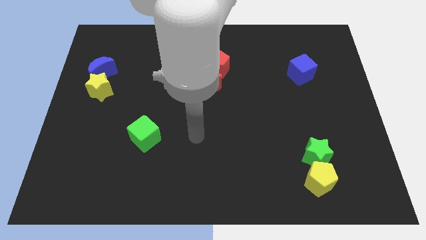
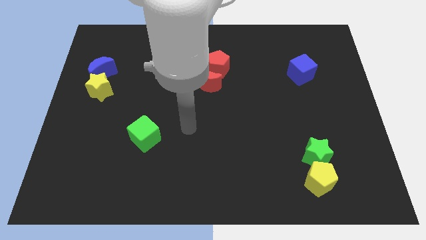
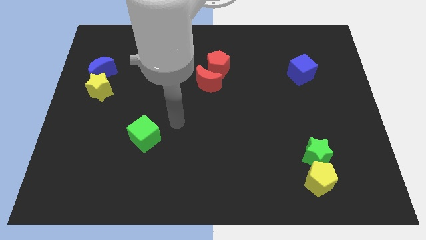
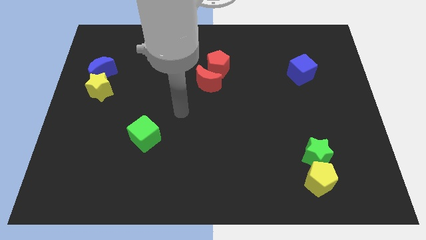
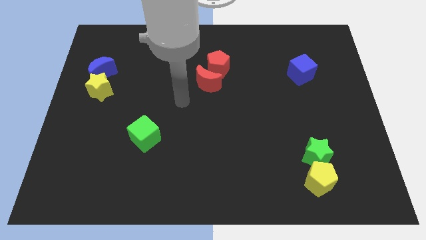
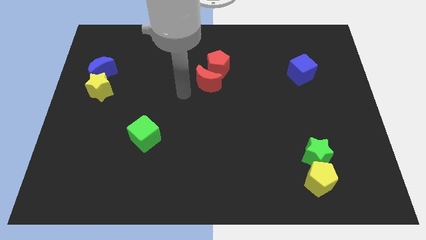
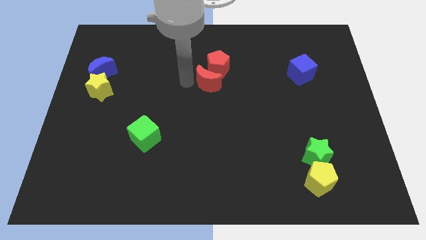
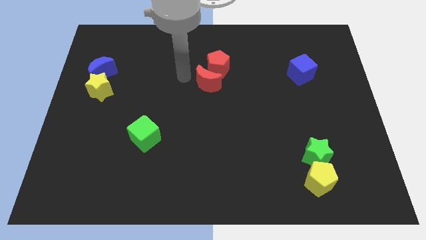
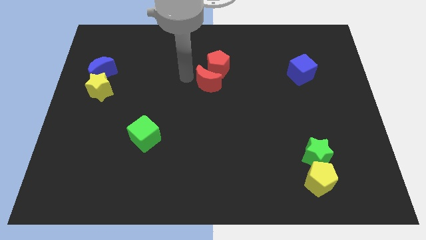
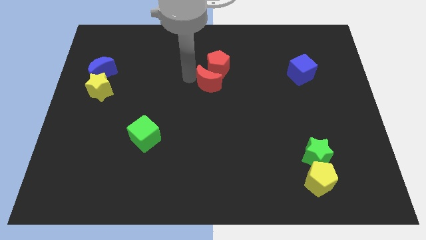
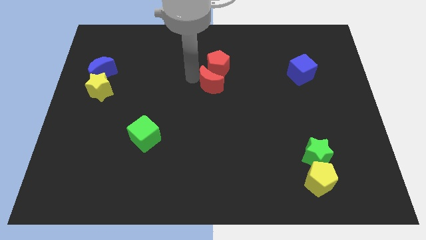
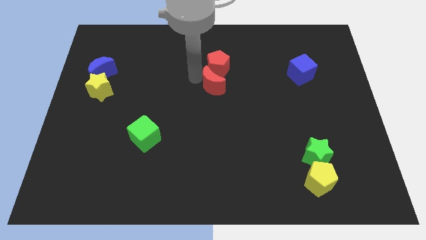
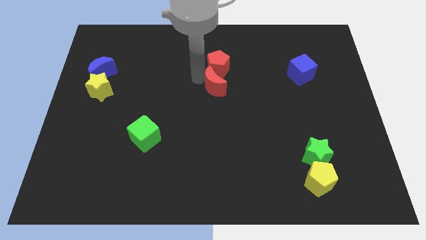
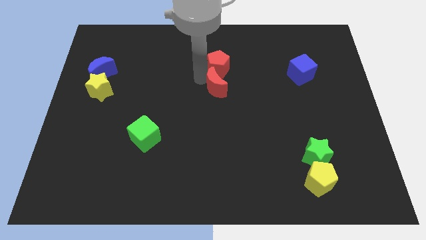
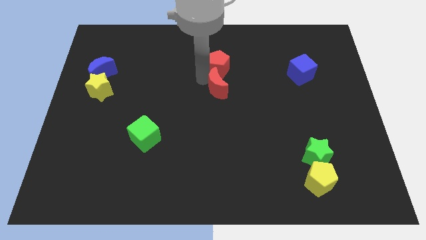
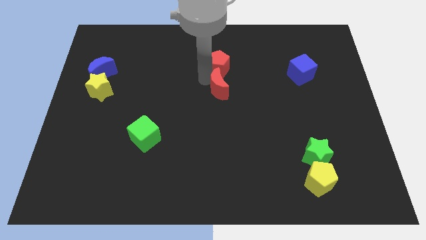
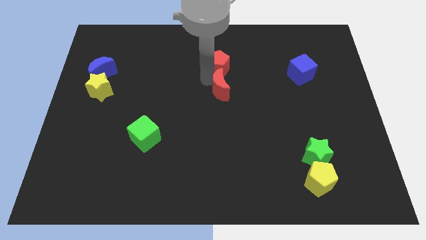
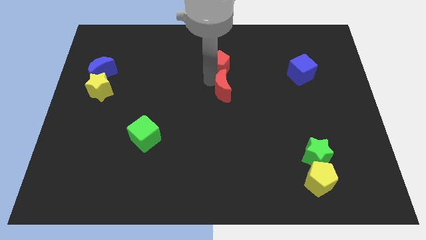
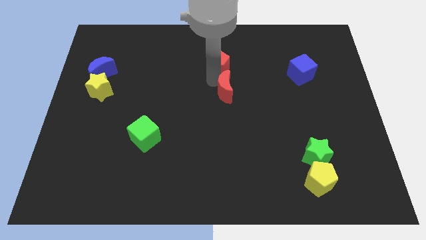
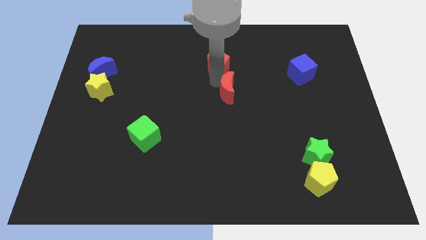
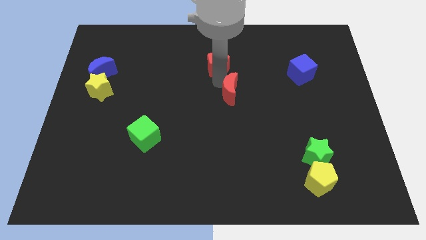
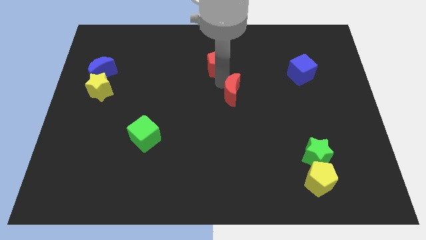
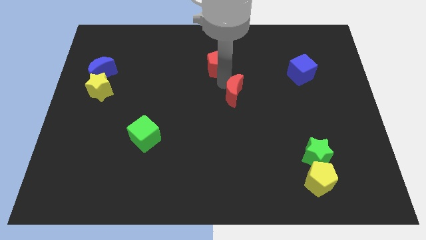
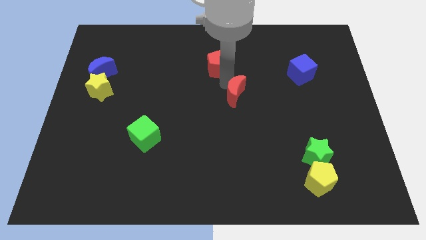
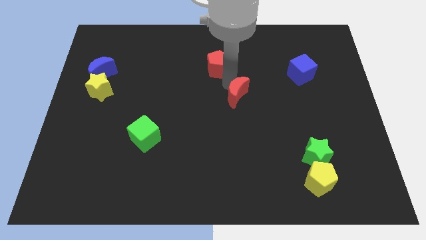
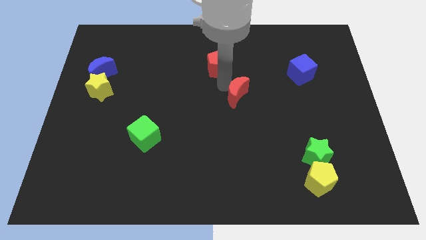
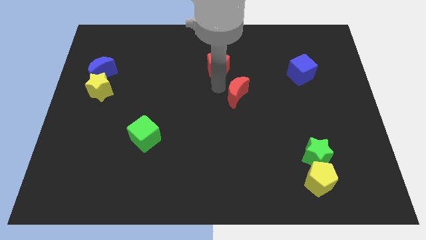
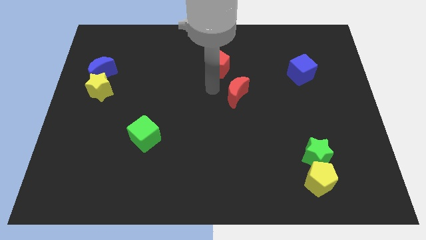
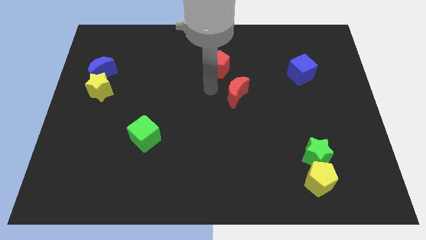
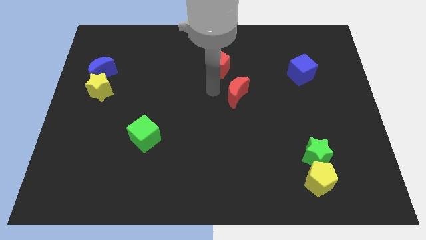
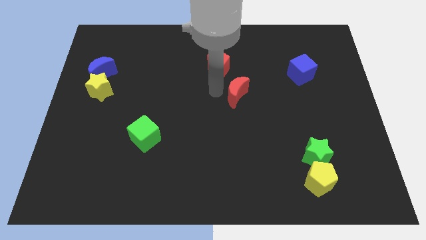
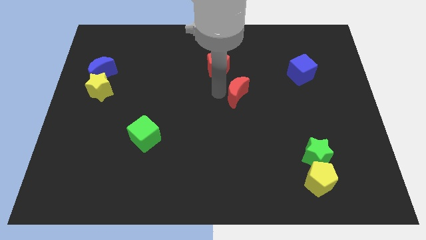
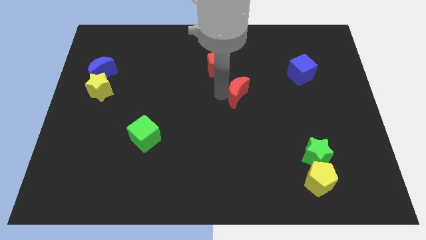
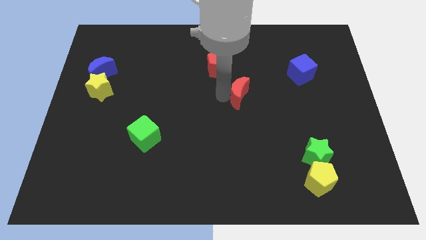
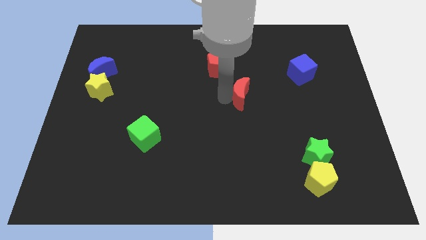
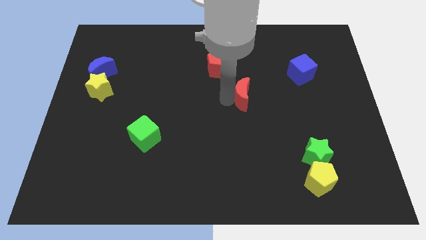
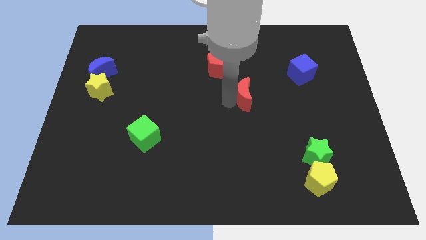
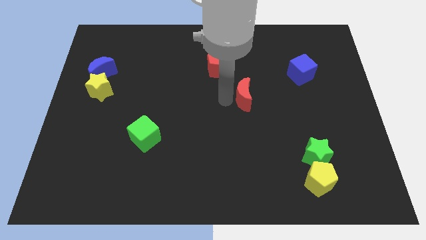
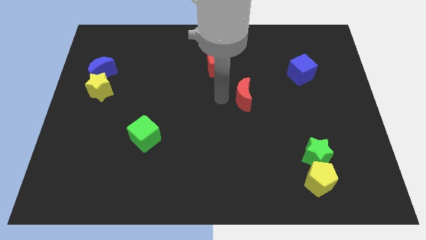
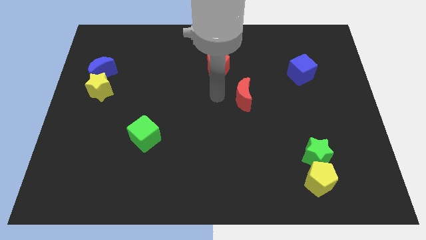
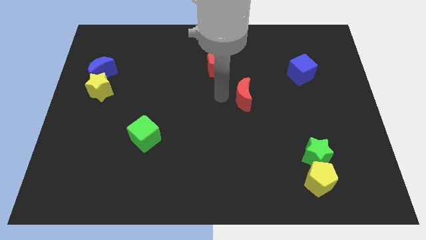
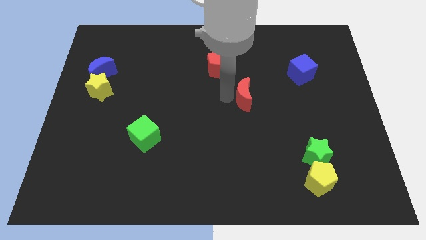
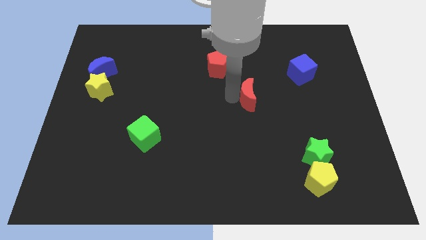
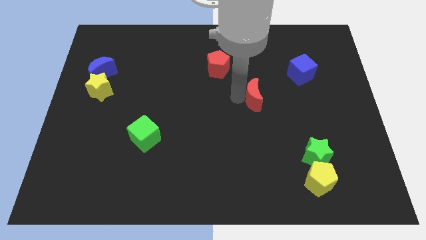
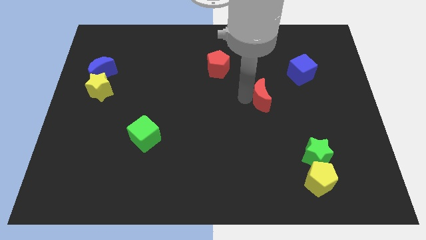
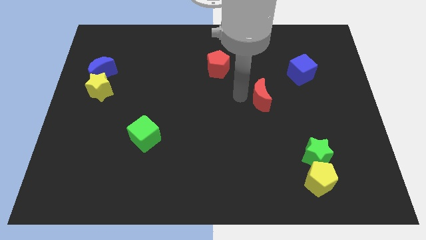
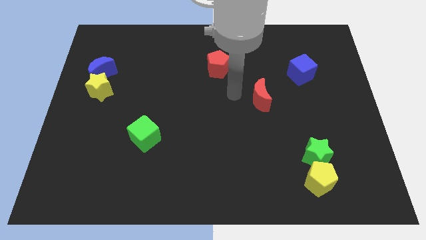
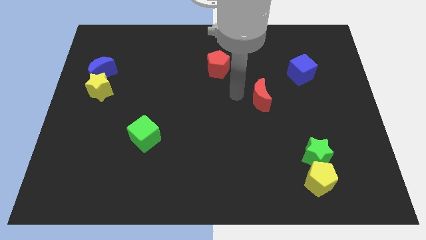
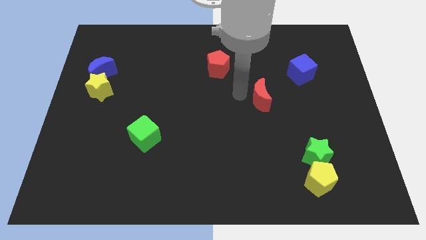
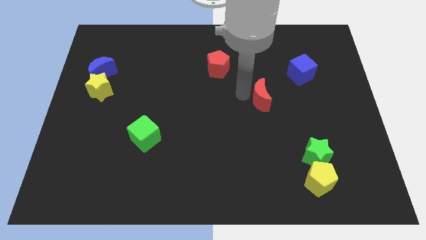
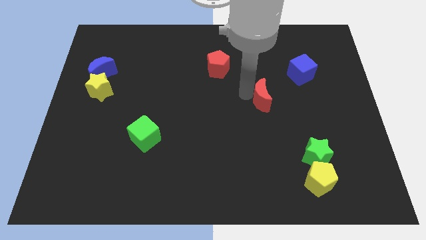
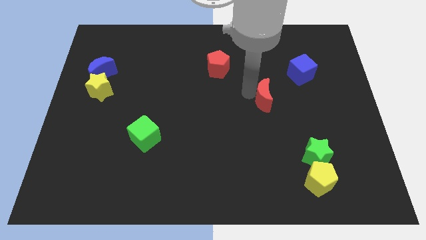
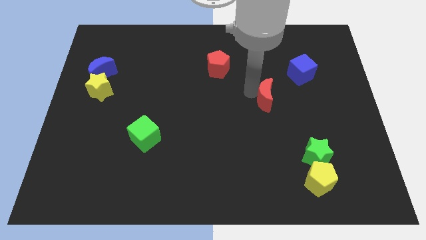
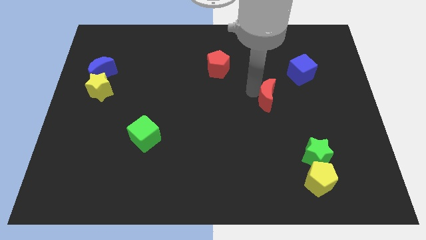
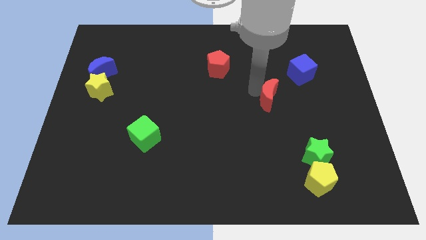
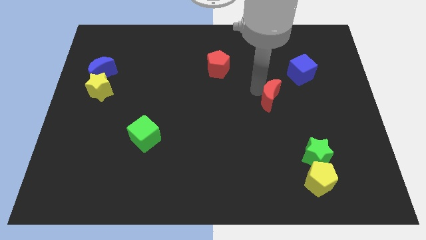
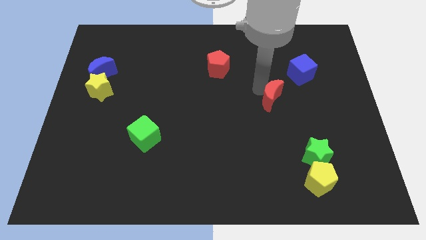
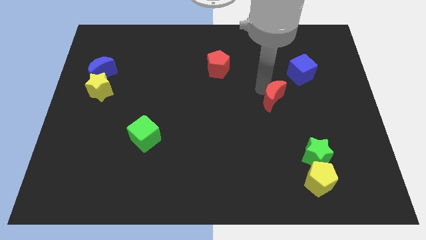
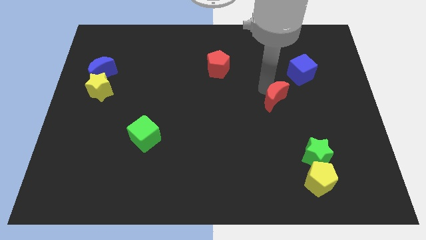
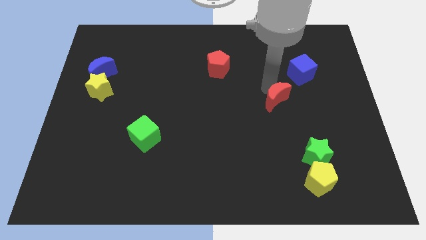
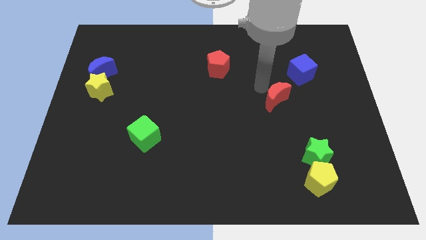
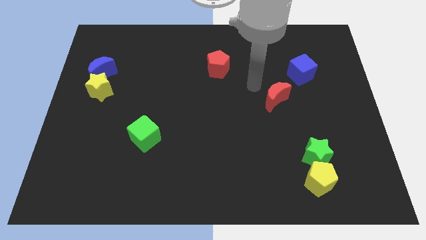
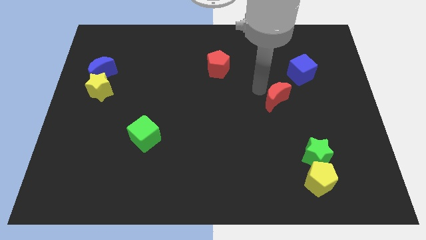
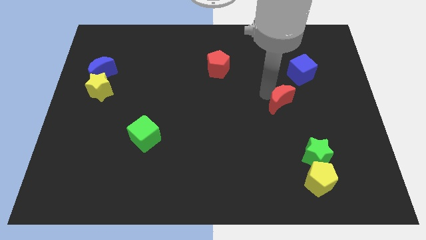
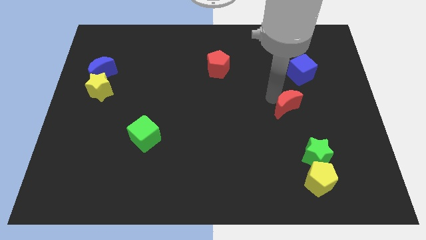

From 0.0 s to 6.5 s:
put the red moon above the green star

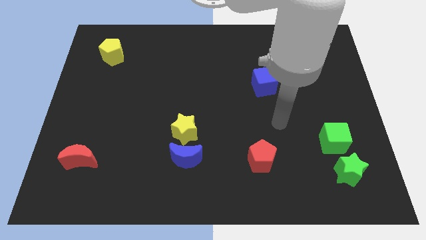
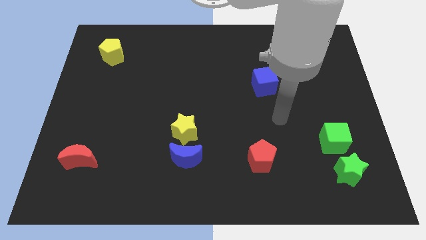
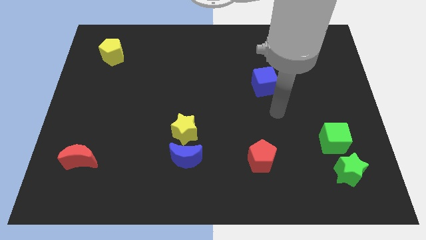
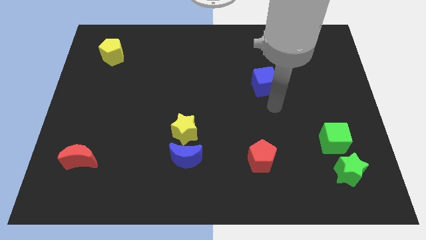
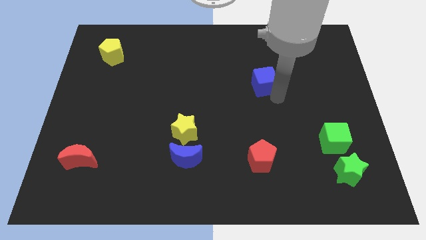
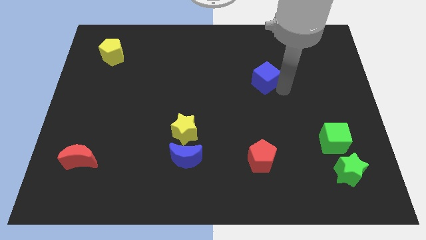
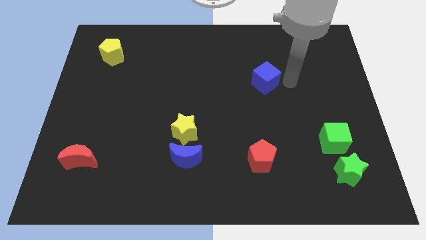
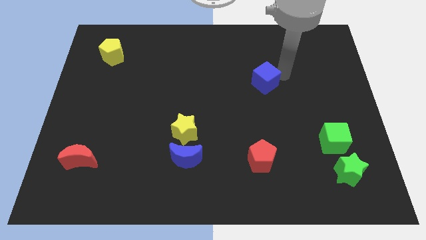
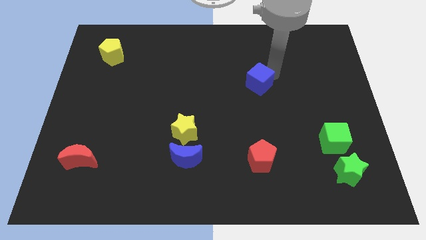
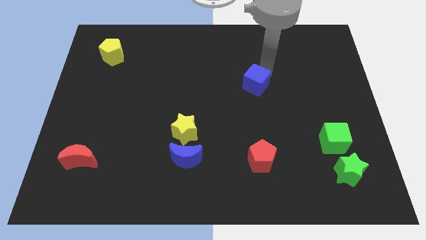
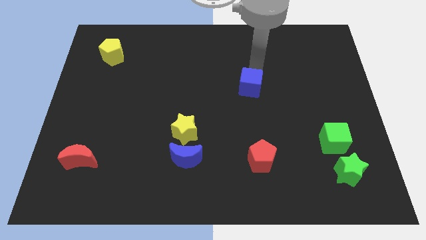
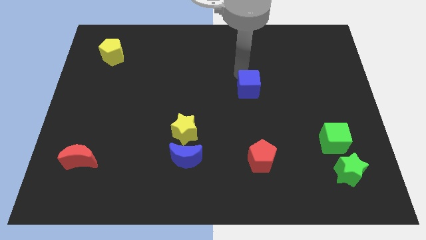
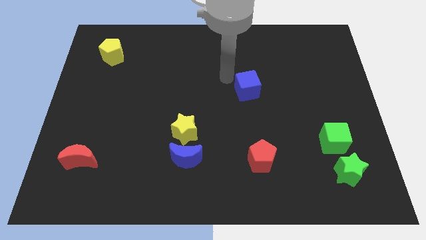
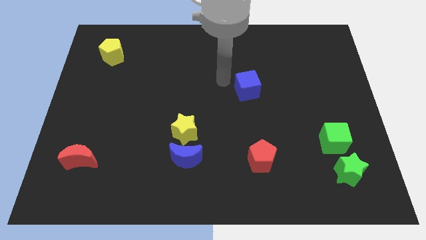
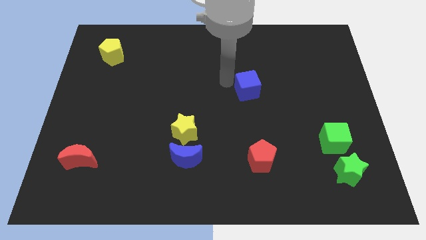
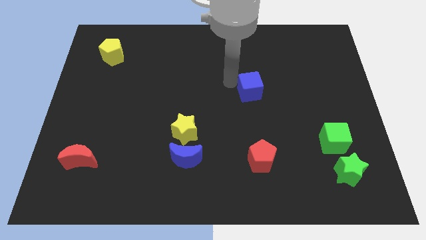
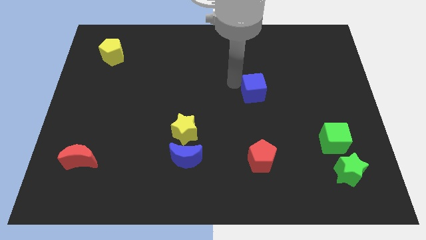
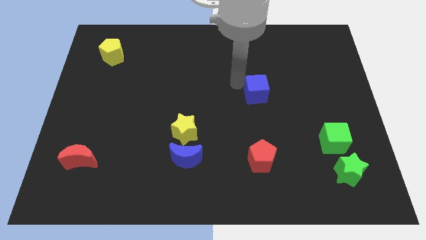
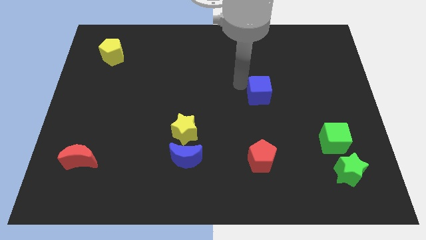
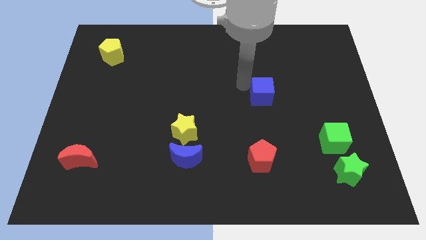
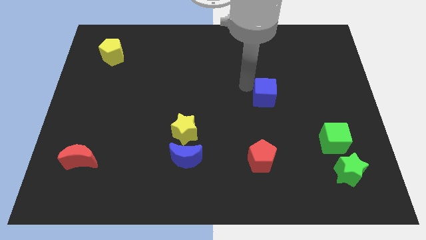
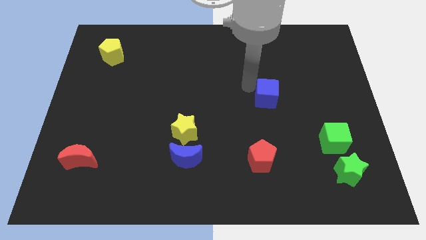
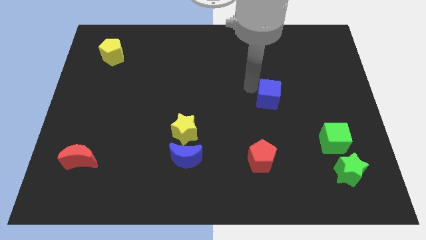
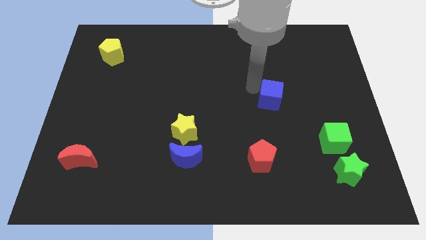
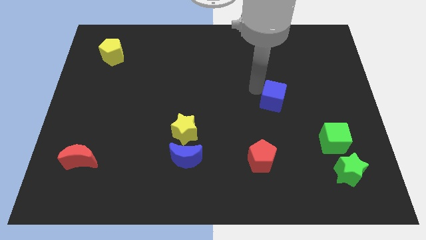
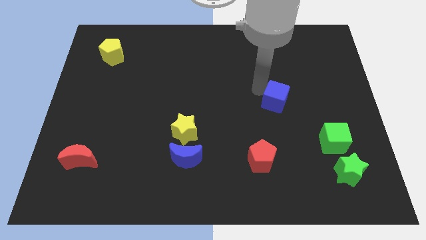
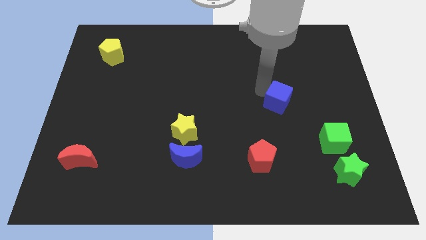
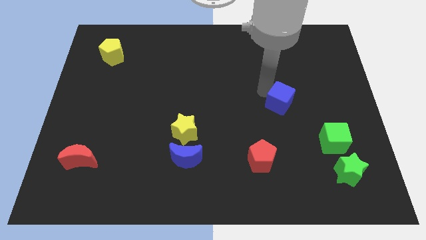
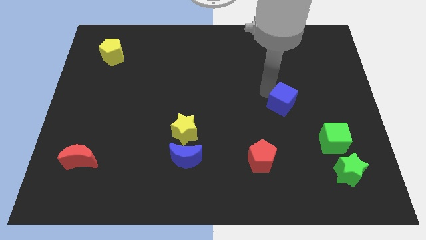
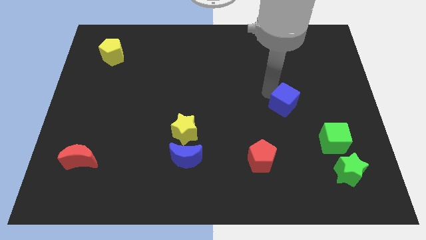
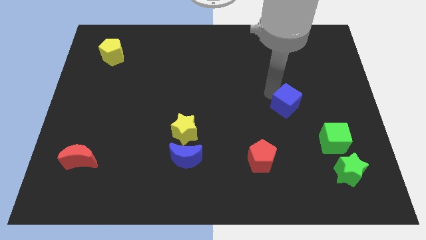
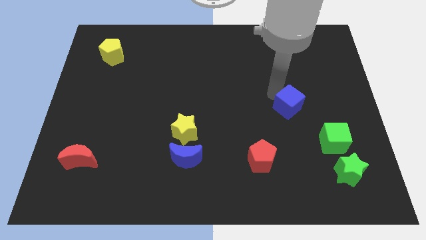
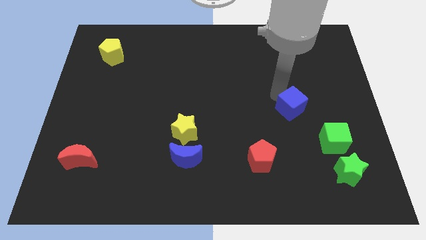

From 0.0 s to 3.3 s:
push the blue cube to the top left side of the green cube
